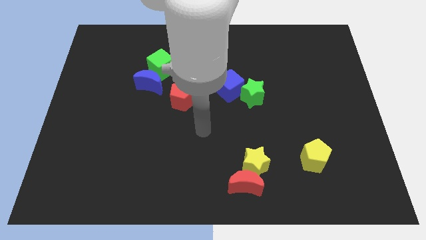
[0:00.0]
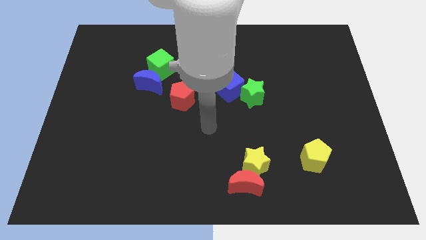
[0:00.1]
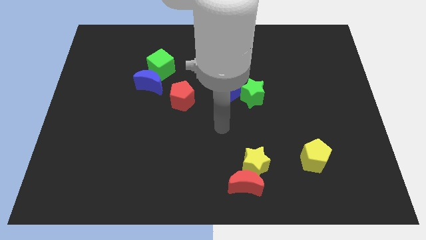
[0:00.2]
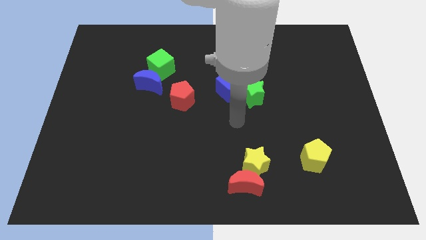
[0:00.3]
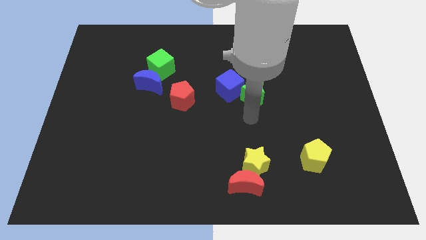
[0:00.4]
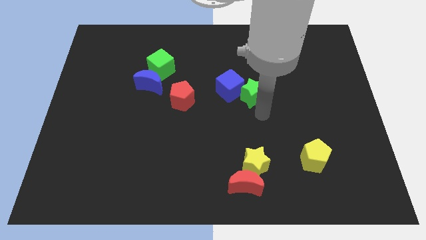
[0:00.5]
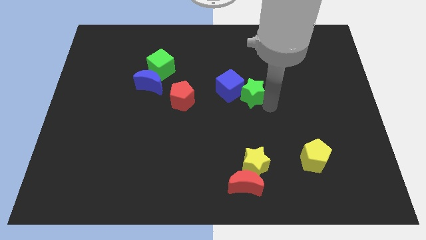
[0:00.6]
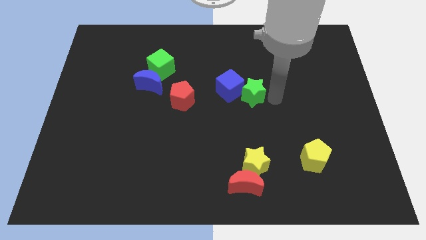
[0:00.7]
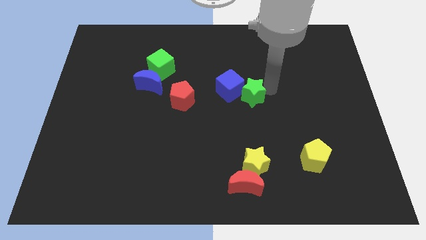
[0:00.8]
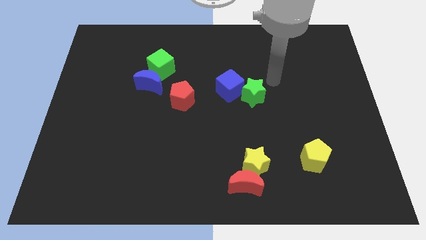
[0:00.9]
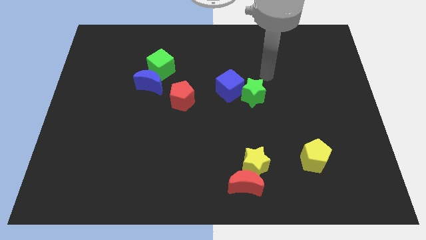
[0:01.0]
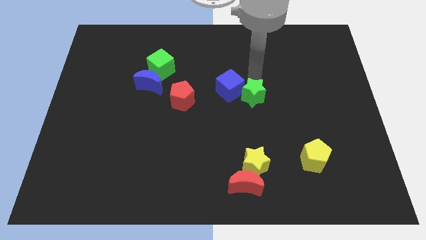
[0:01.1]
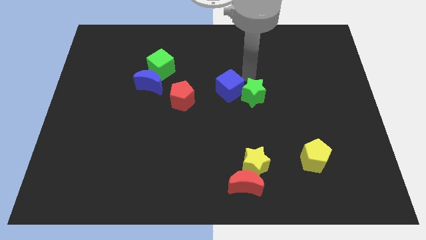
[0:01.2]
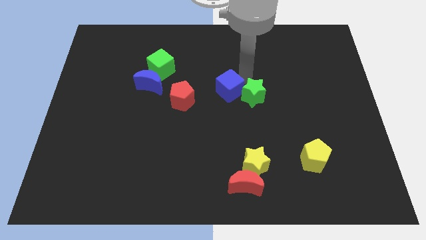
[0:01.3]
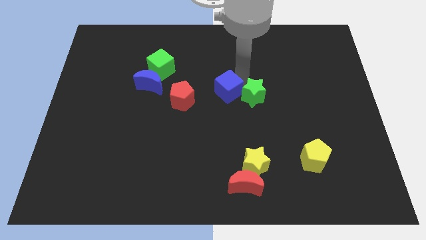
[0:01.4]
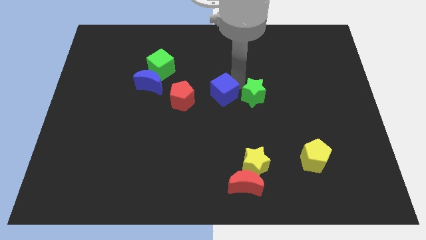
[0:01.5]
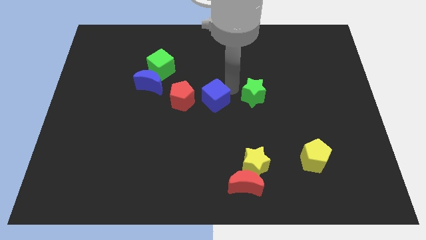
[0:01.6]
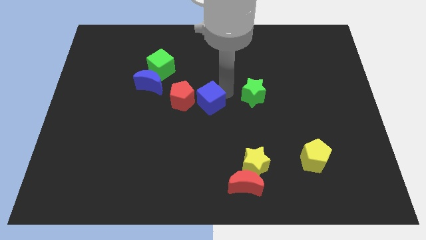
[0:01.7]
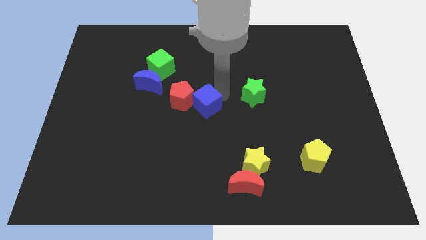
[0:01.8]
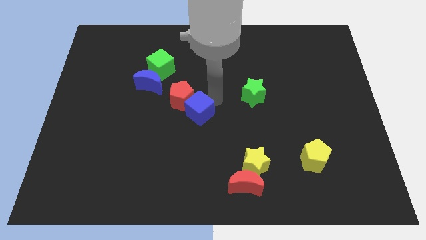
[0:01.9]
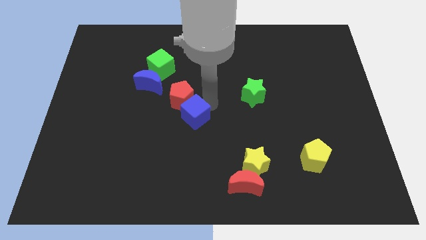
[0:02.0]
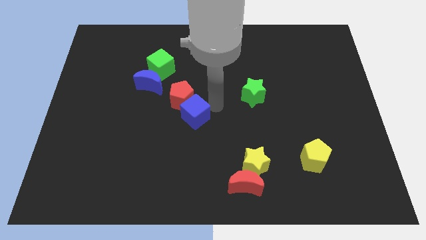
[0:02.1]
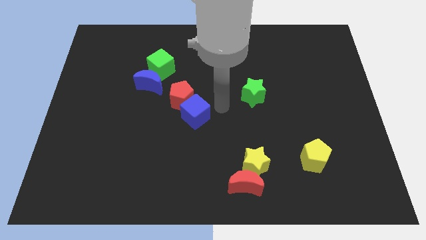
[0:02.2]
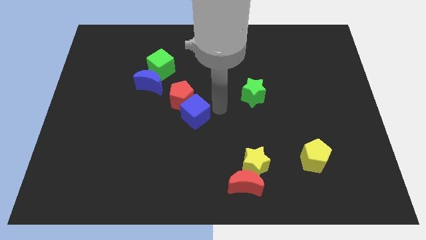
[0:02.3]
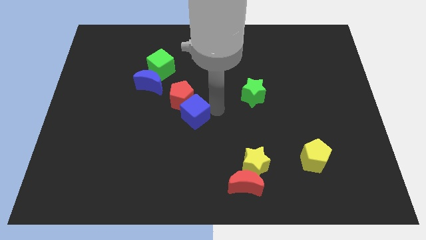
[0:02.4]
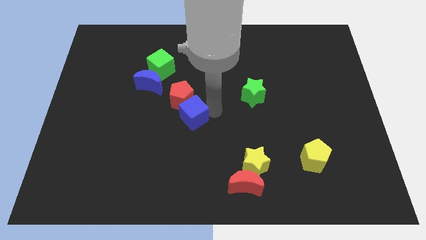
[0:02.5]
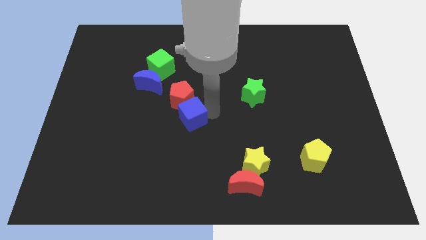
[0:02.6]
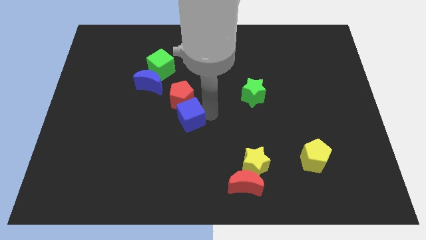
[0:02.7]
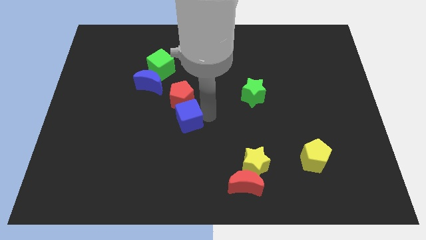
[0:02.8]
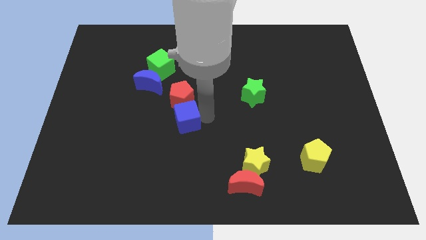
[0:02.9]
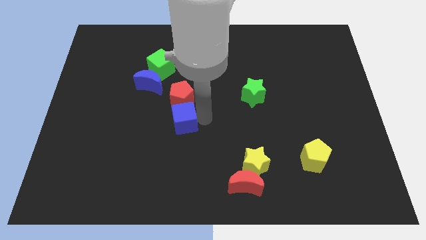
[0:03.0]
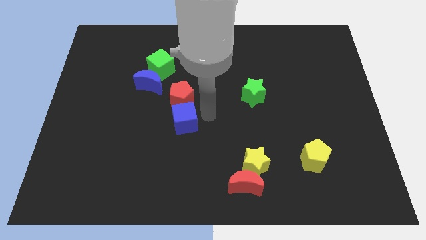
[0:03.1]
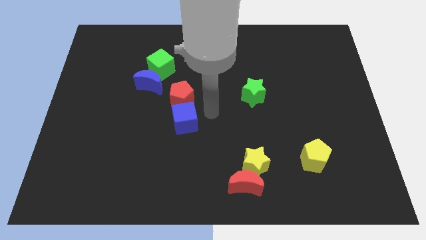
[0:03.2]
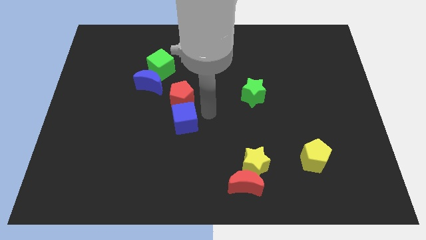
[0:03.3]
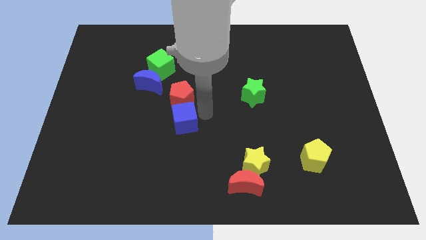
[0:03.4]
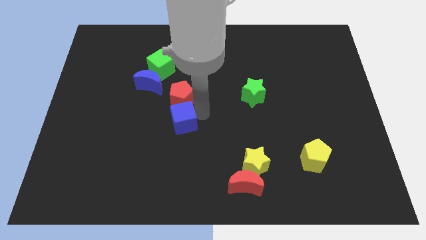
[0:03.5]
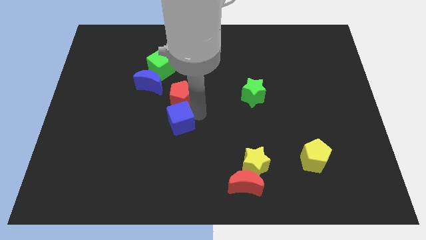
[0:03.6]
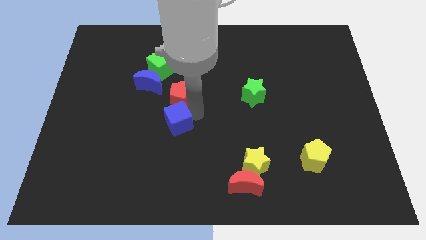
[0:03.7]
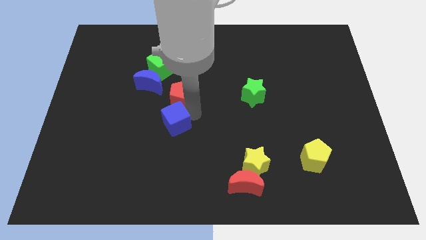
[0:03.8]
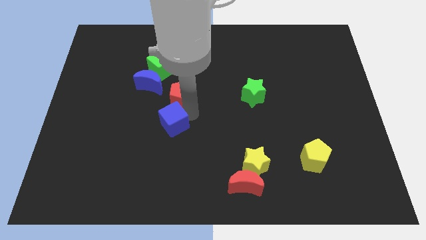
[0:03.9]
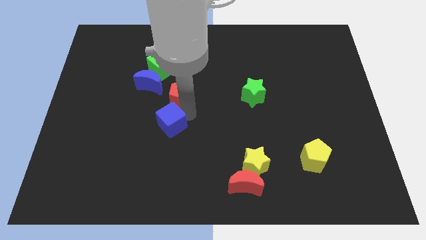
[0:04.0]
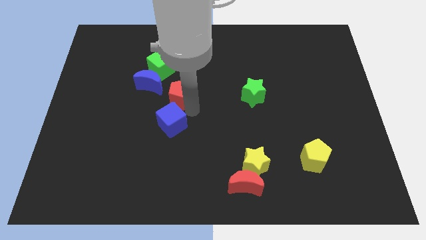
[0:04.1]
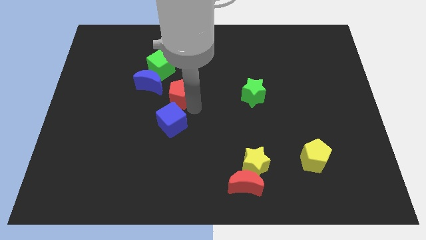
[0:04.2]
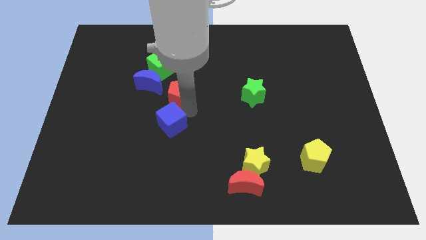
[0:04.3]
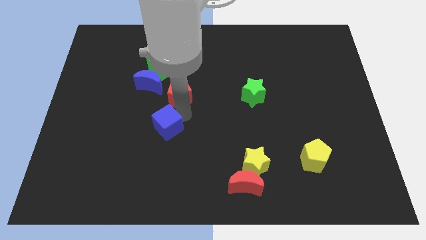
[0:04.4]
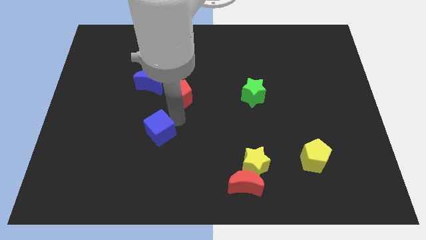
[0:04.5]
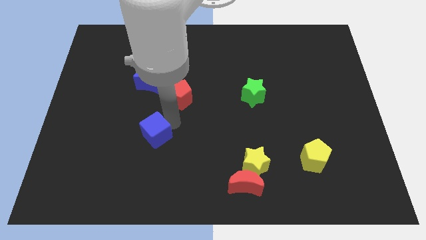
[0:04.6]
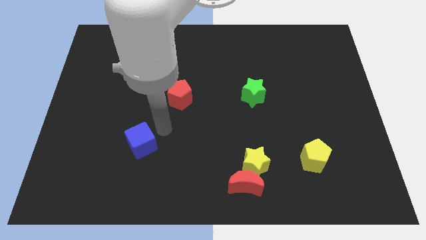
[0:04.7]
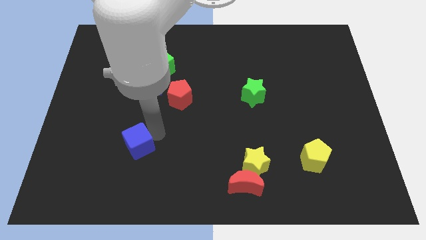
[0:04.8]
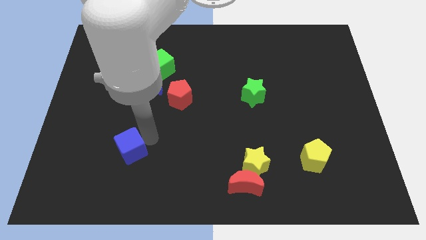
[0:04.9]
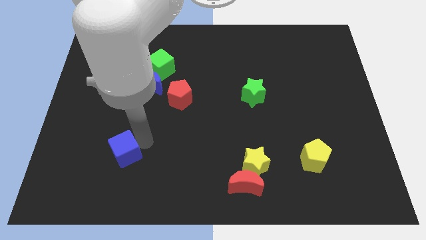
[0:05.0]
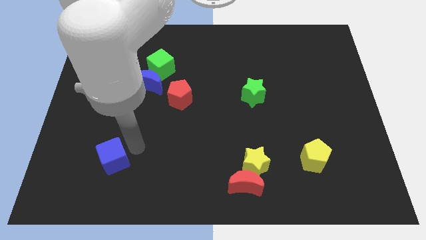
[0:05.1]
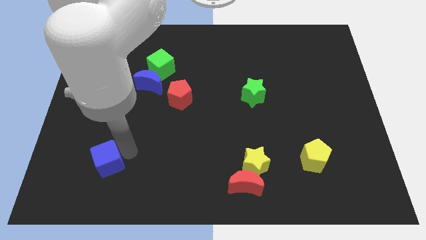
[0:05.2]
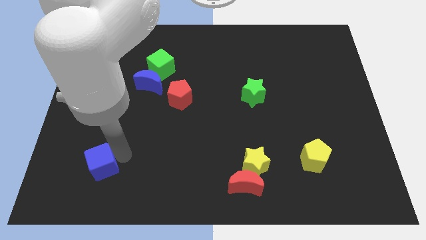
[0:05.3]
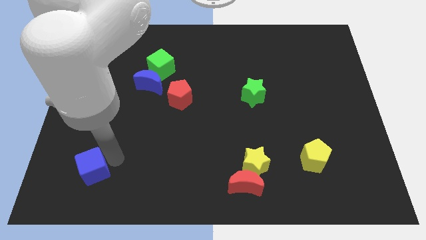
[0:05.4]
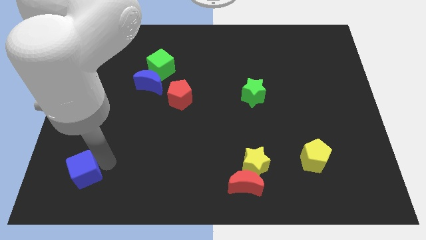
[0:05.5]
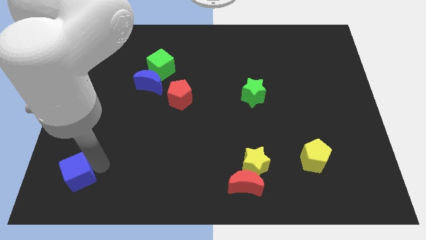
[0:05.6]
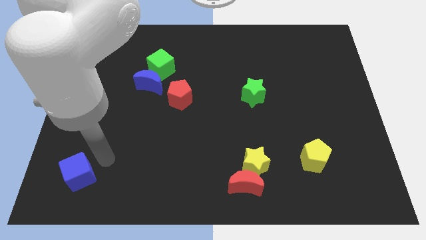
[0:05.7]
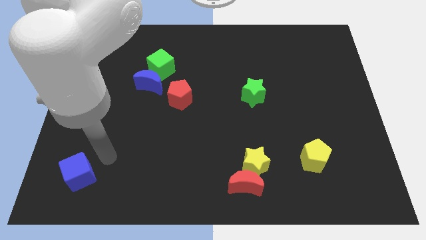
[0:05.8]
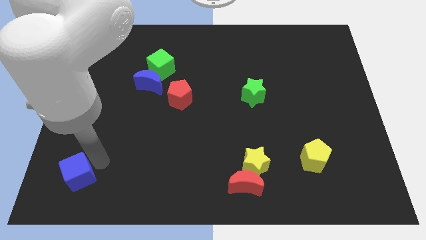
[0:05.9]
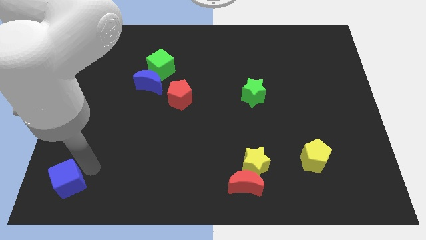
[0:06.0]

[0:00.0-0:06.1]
push the blue cube to the bottom left of the board
